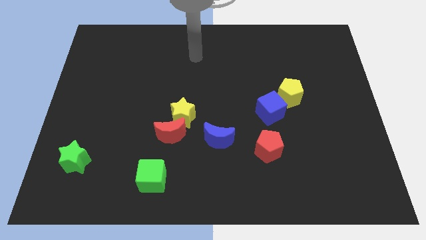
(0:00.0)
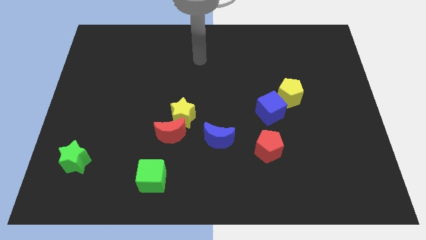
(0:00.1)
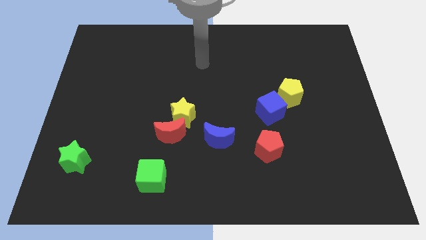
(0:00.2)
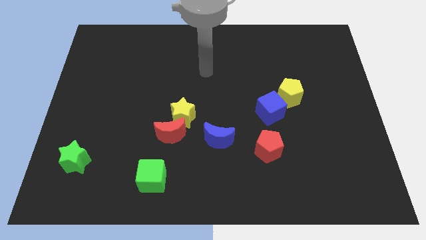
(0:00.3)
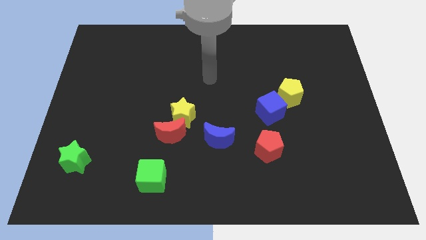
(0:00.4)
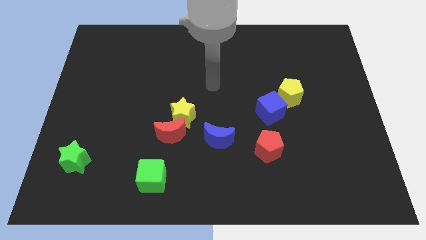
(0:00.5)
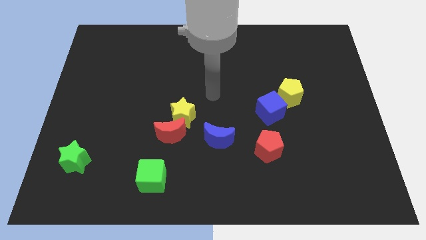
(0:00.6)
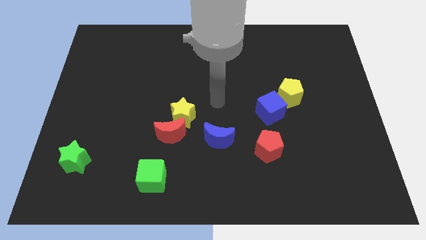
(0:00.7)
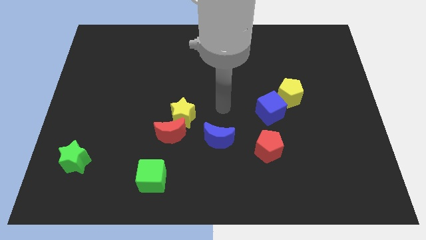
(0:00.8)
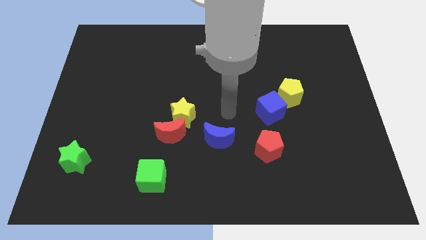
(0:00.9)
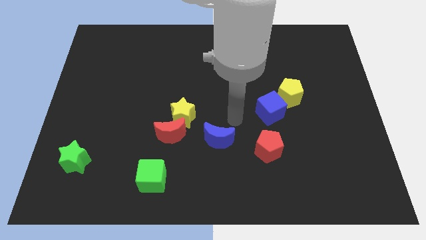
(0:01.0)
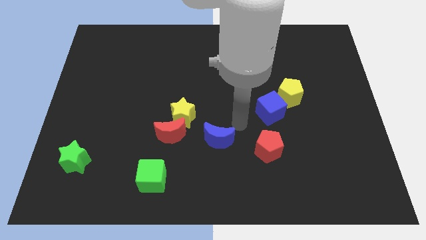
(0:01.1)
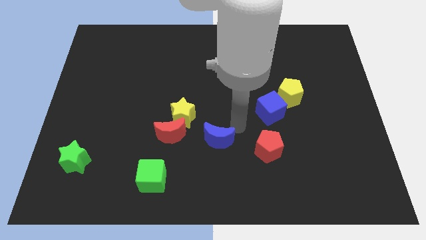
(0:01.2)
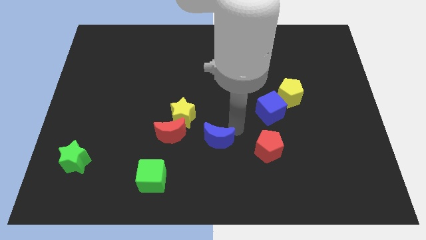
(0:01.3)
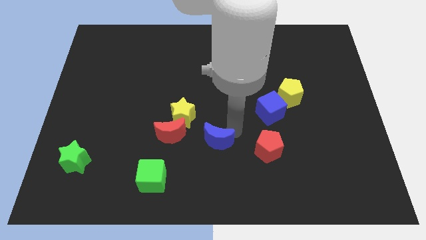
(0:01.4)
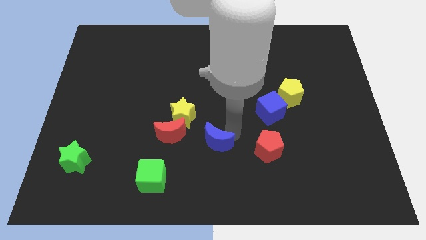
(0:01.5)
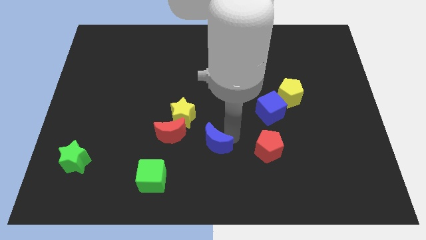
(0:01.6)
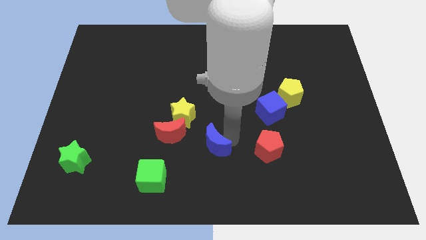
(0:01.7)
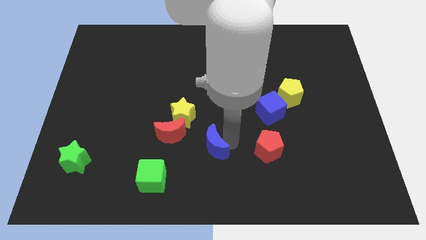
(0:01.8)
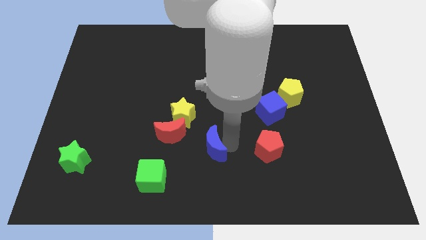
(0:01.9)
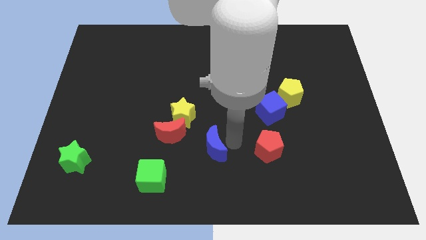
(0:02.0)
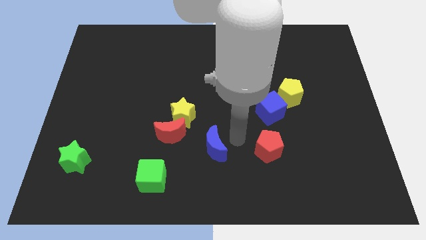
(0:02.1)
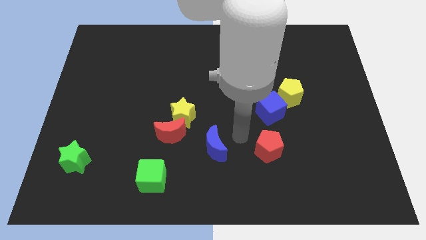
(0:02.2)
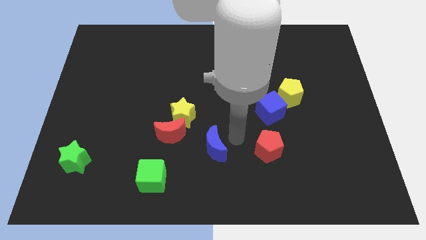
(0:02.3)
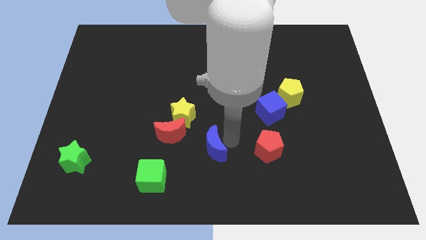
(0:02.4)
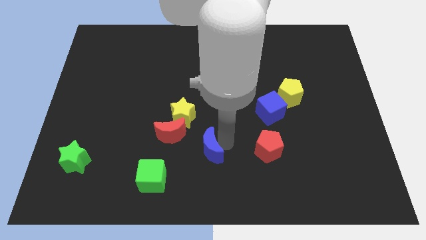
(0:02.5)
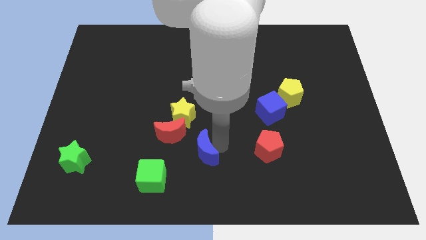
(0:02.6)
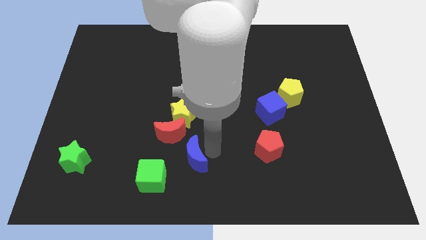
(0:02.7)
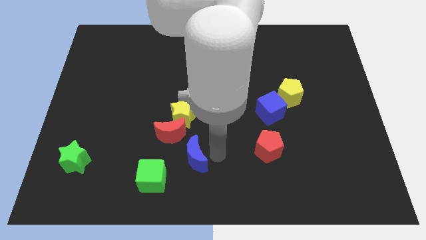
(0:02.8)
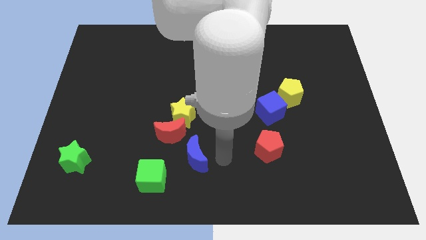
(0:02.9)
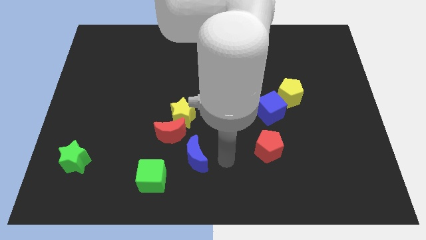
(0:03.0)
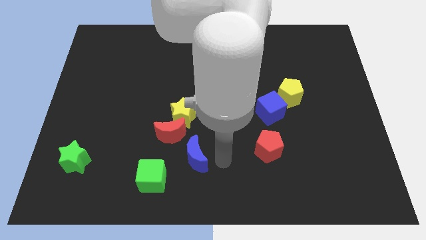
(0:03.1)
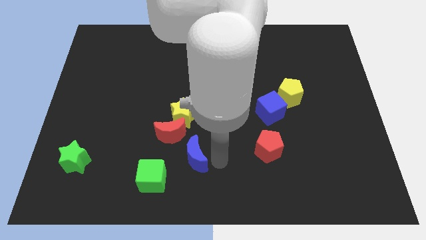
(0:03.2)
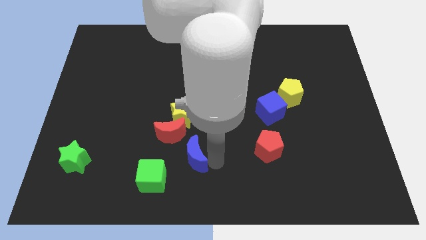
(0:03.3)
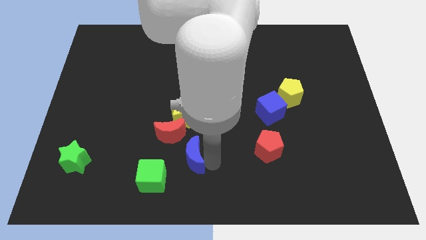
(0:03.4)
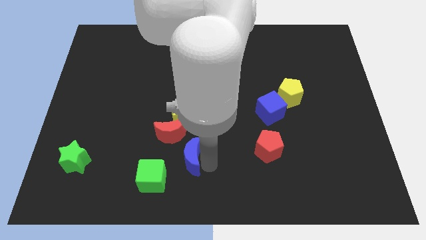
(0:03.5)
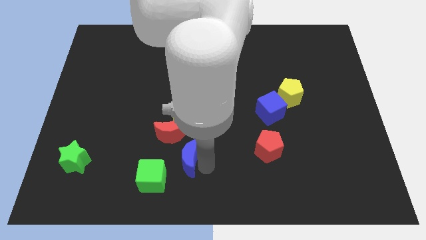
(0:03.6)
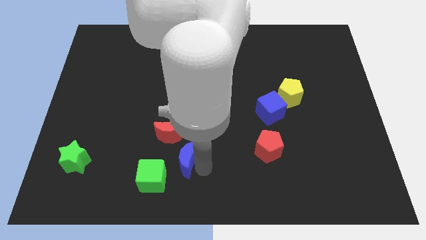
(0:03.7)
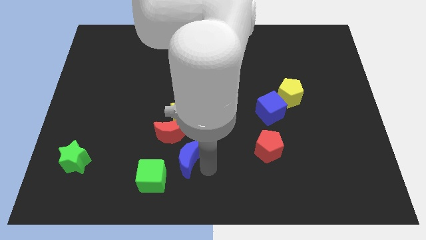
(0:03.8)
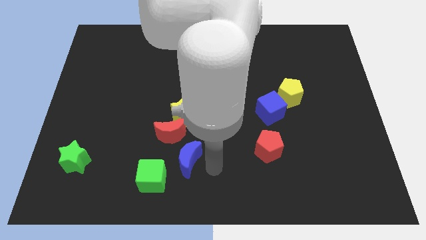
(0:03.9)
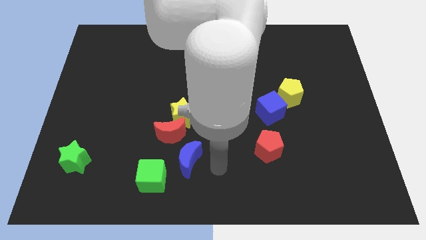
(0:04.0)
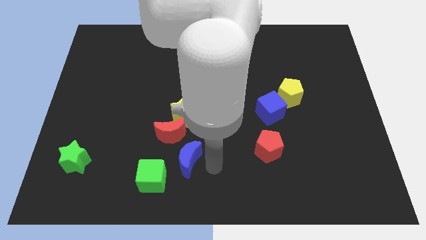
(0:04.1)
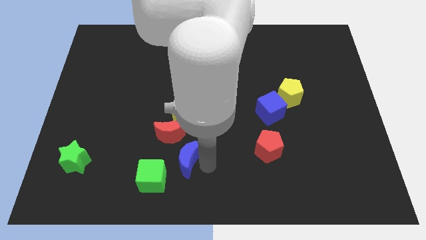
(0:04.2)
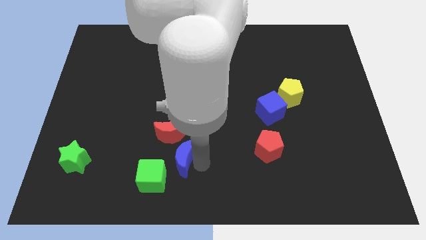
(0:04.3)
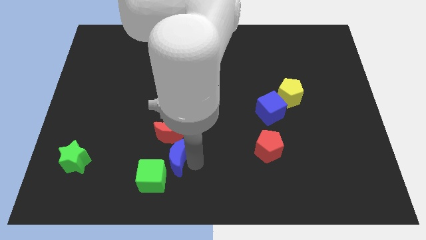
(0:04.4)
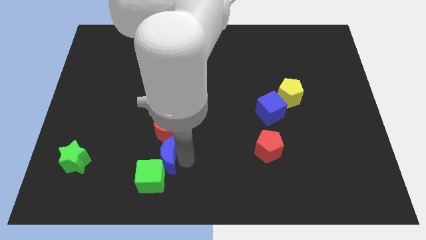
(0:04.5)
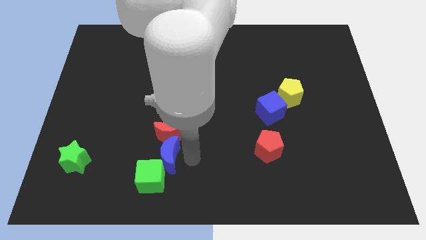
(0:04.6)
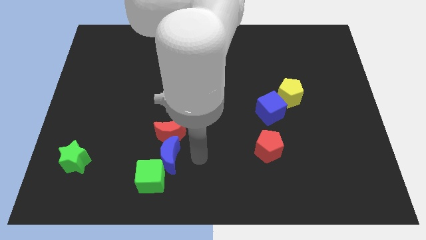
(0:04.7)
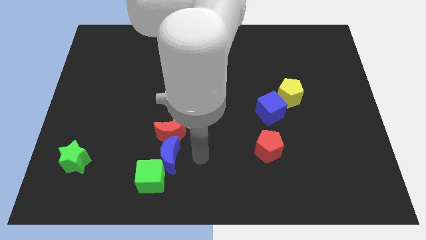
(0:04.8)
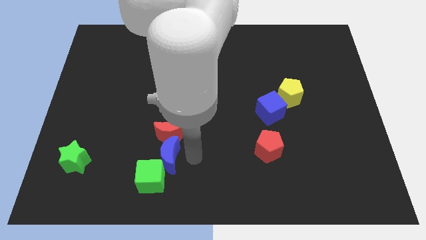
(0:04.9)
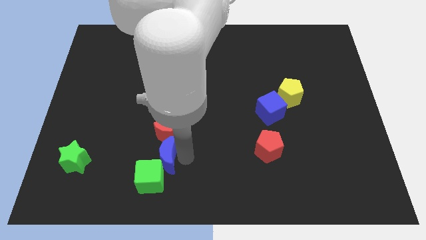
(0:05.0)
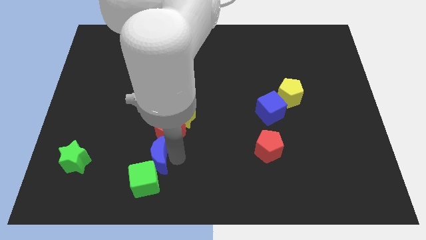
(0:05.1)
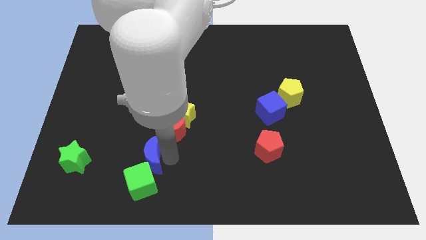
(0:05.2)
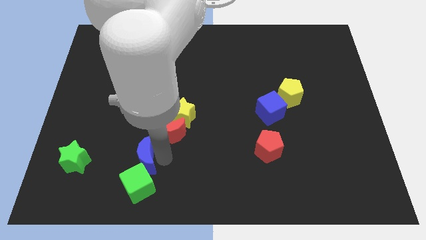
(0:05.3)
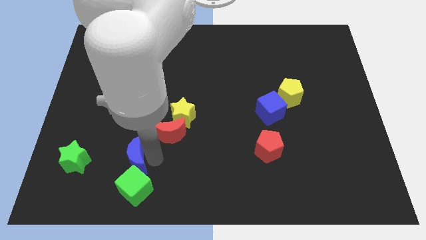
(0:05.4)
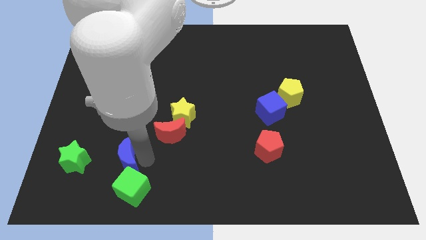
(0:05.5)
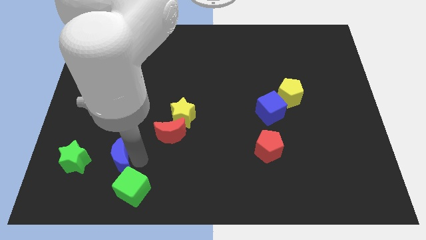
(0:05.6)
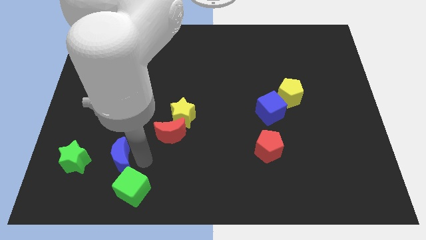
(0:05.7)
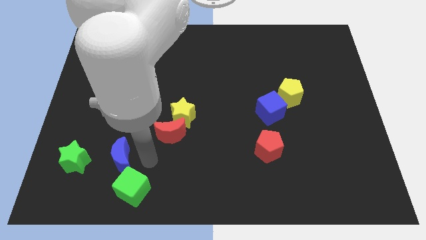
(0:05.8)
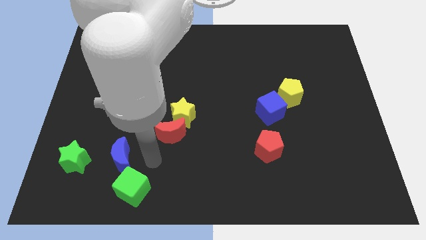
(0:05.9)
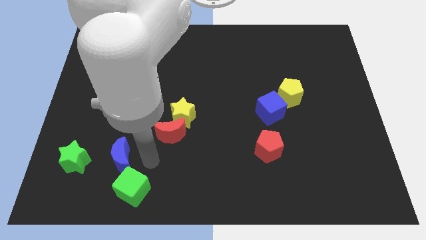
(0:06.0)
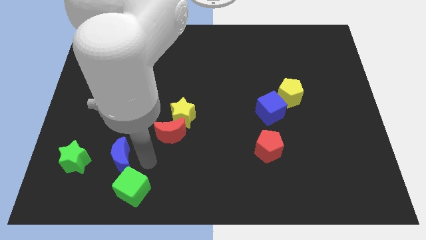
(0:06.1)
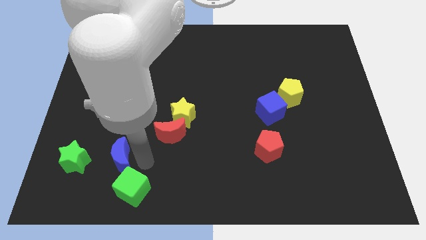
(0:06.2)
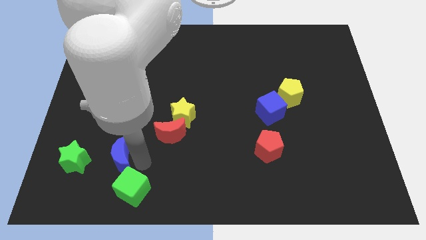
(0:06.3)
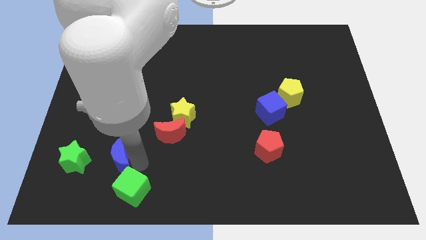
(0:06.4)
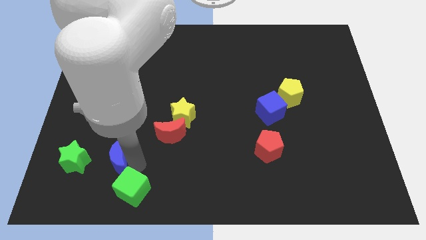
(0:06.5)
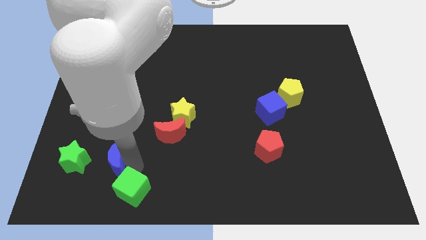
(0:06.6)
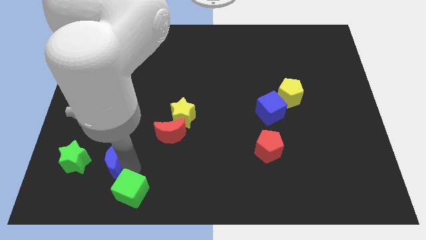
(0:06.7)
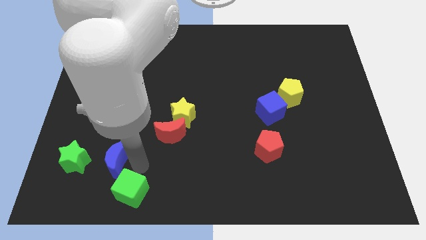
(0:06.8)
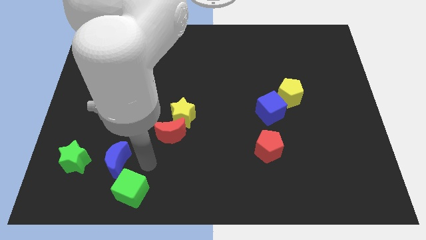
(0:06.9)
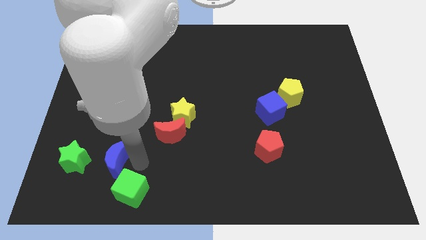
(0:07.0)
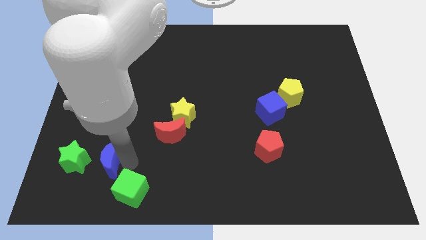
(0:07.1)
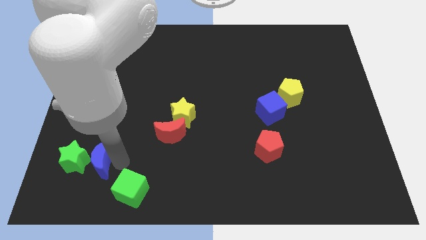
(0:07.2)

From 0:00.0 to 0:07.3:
move the blue moon to the green star
